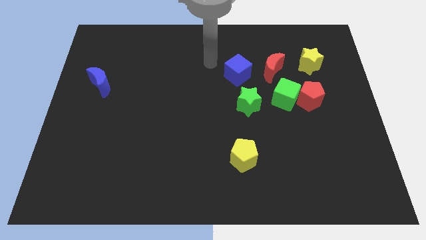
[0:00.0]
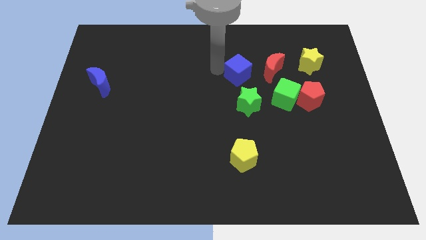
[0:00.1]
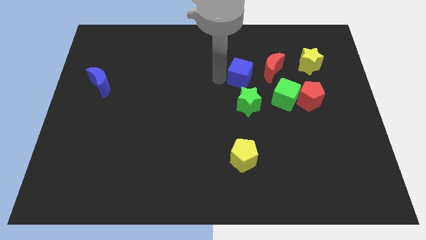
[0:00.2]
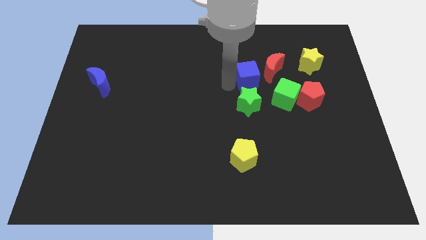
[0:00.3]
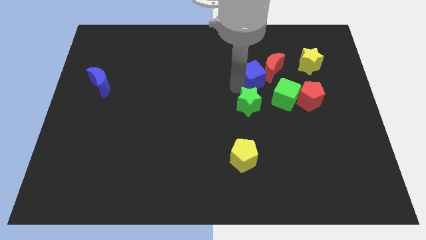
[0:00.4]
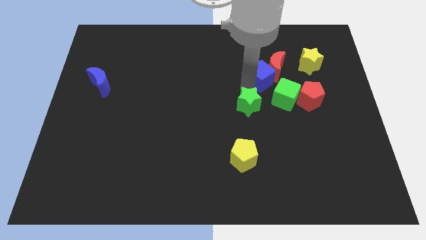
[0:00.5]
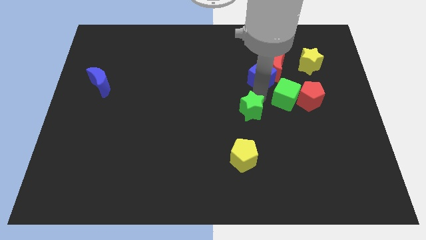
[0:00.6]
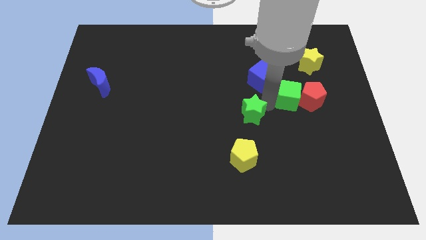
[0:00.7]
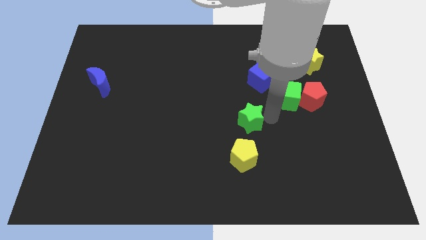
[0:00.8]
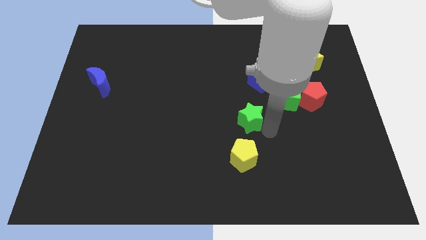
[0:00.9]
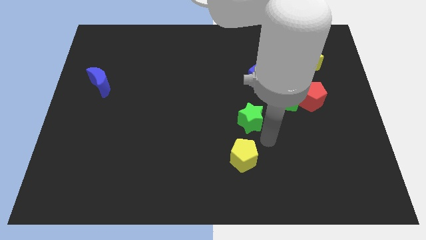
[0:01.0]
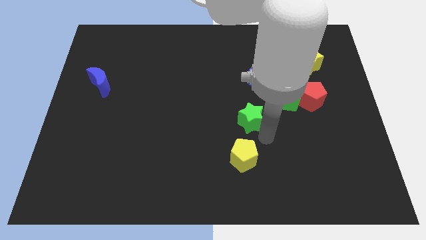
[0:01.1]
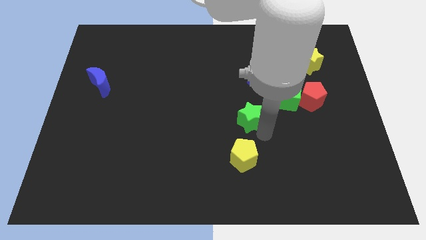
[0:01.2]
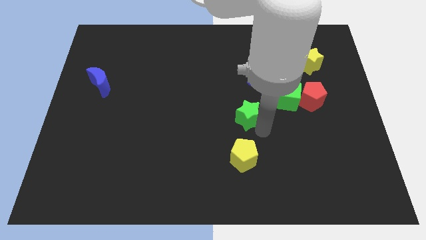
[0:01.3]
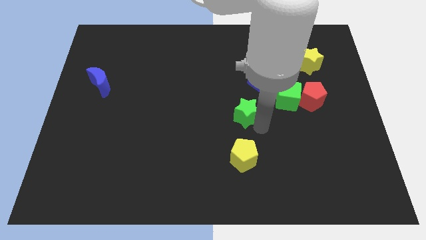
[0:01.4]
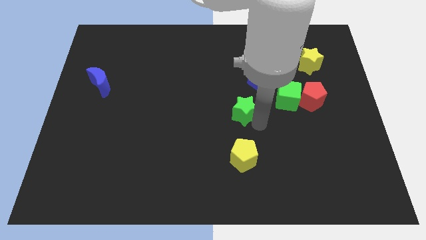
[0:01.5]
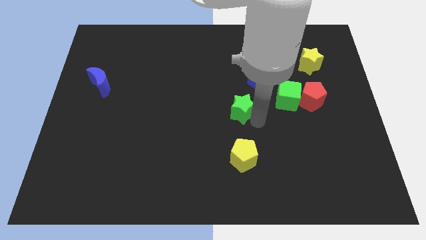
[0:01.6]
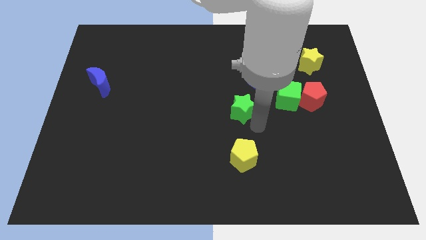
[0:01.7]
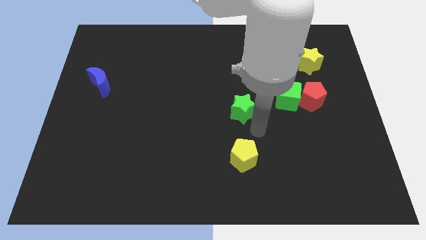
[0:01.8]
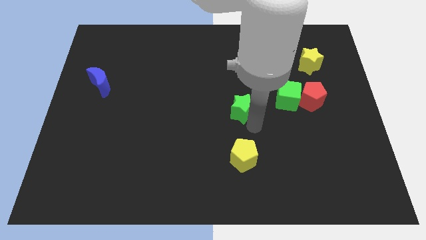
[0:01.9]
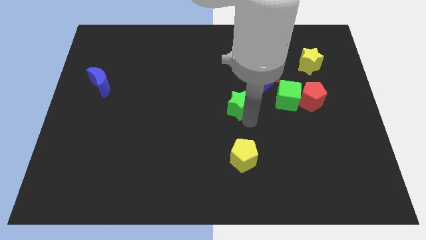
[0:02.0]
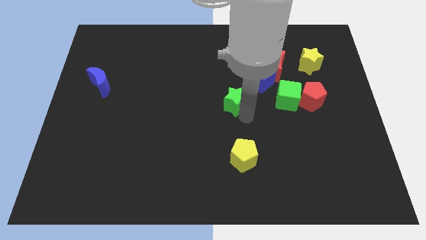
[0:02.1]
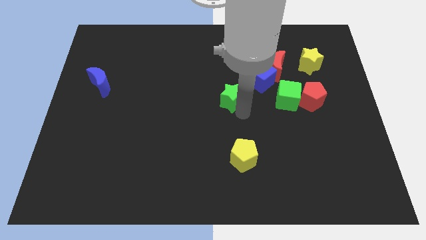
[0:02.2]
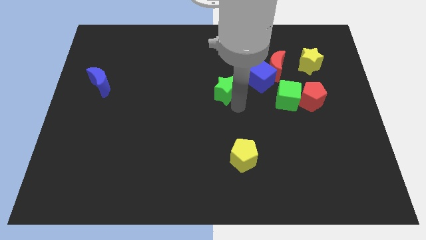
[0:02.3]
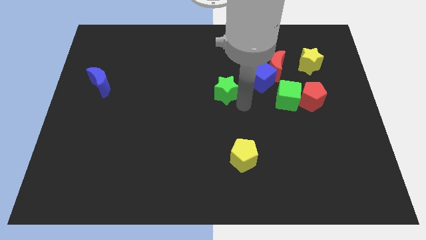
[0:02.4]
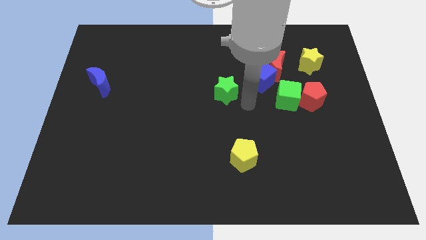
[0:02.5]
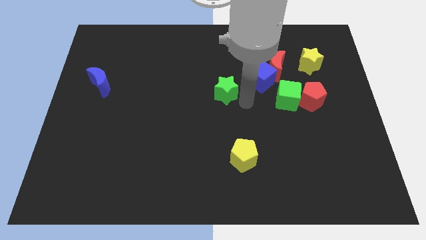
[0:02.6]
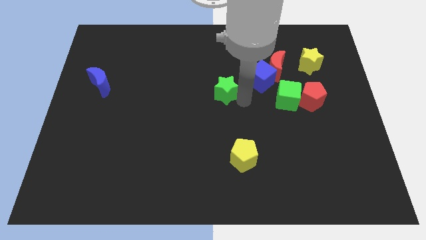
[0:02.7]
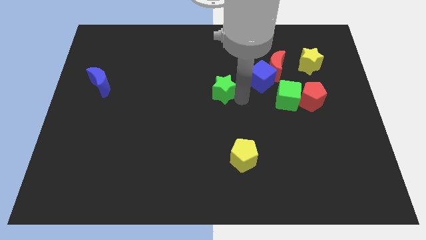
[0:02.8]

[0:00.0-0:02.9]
push the green star somewhat up and then left

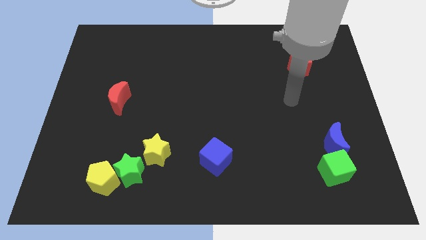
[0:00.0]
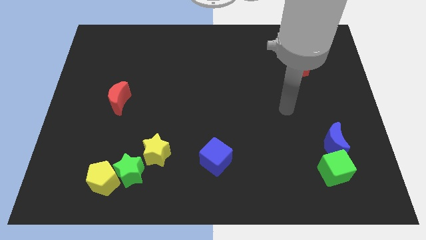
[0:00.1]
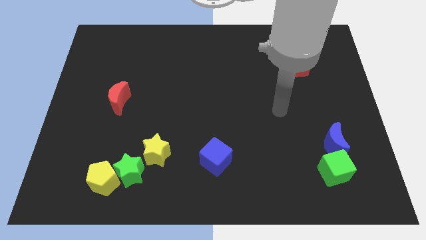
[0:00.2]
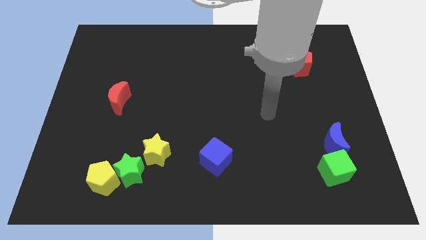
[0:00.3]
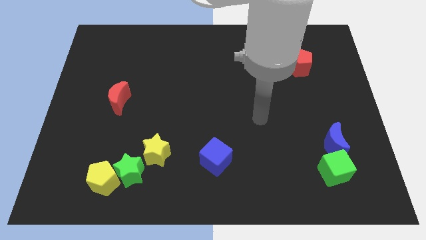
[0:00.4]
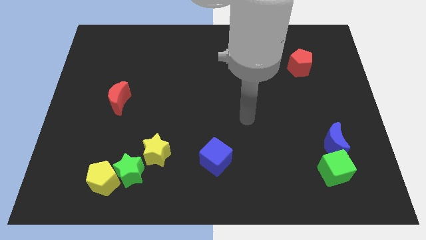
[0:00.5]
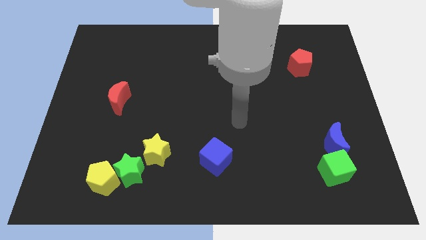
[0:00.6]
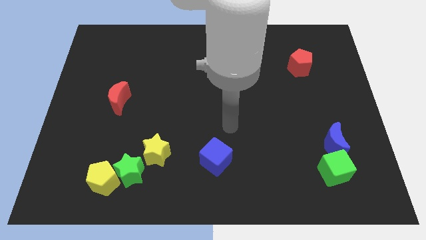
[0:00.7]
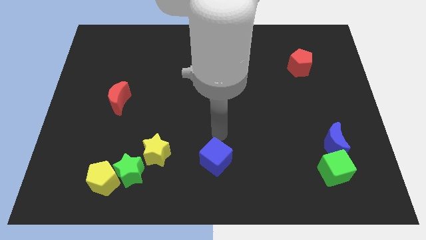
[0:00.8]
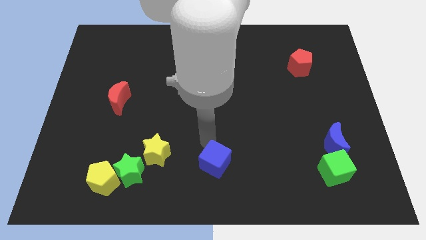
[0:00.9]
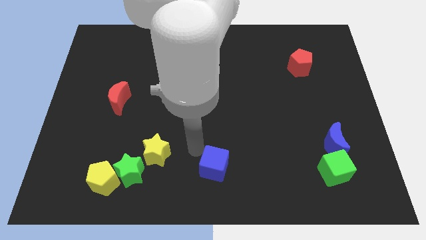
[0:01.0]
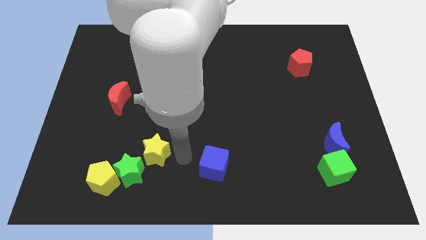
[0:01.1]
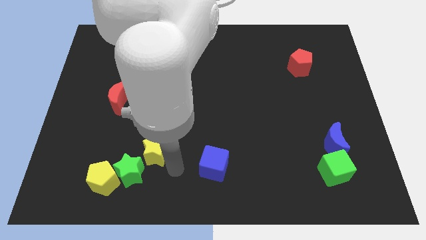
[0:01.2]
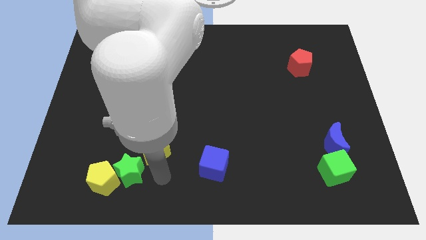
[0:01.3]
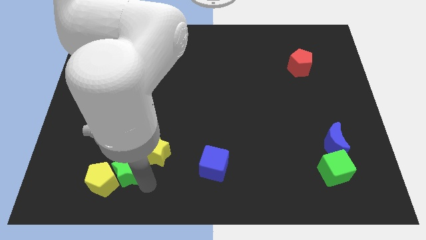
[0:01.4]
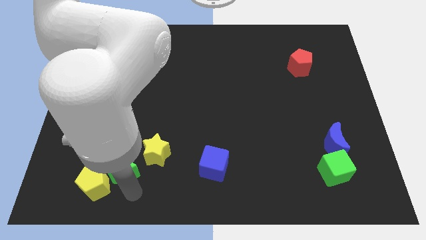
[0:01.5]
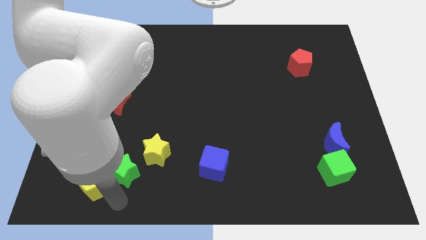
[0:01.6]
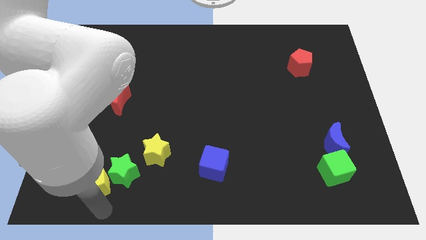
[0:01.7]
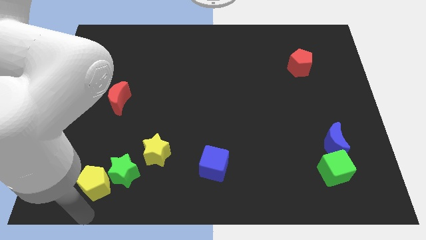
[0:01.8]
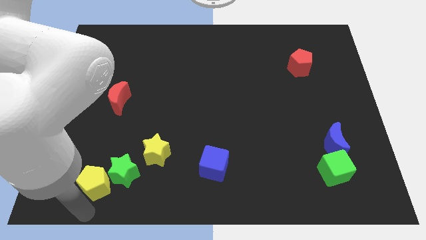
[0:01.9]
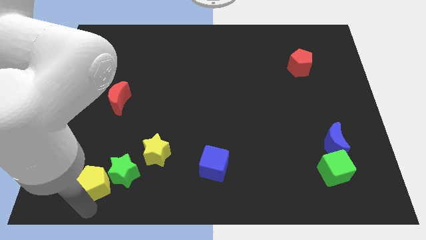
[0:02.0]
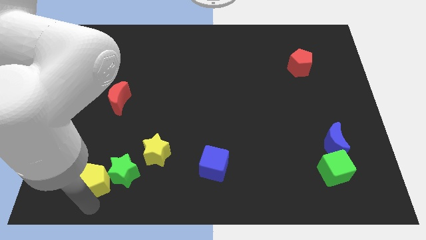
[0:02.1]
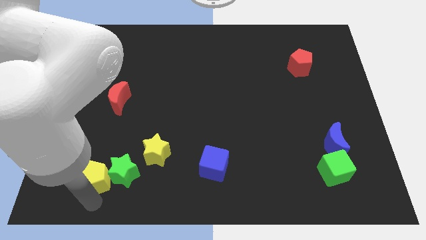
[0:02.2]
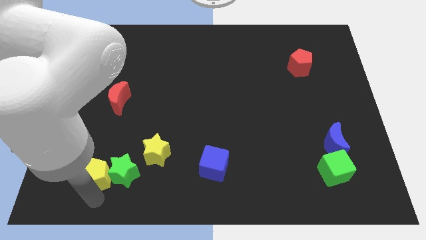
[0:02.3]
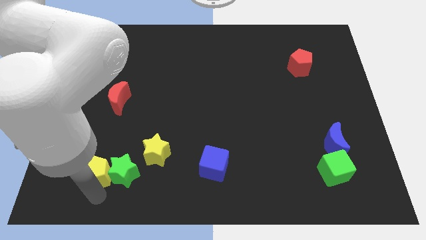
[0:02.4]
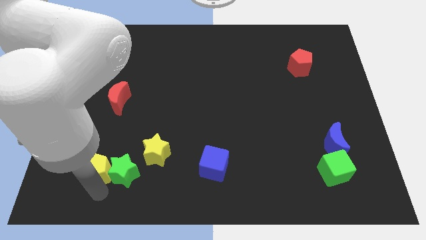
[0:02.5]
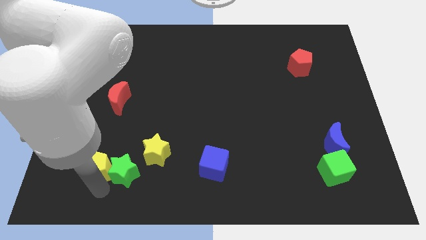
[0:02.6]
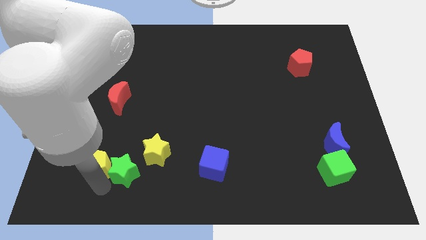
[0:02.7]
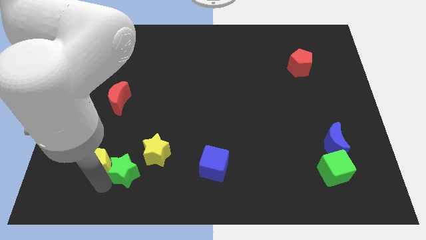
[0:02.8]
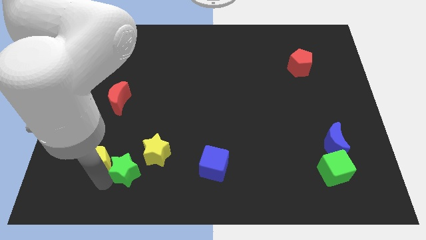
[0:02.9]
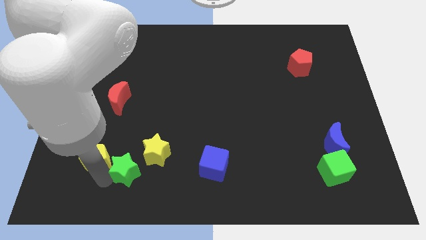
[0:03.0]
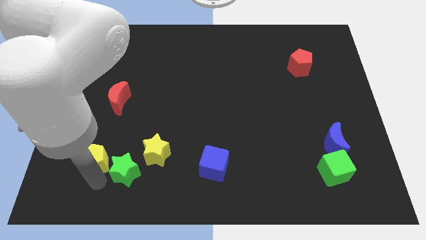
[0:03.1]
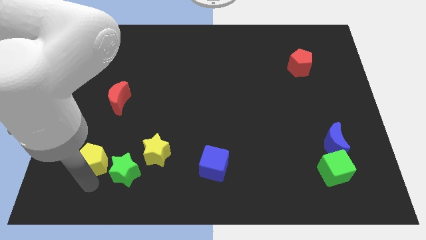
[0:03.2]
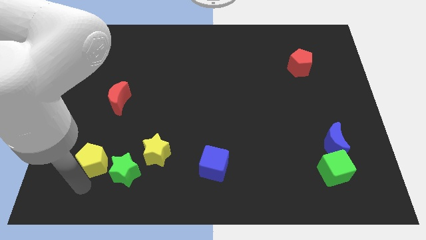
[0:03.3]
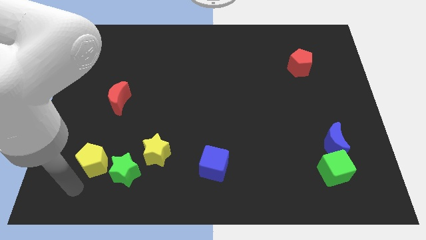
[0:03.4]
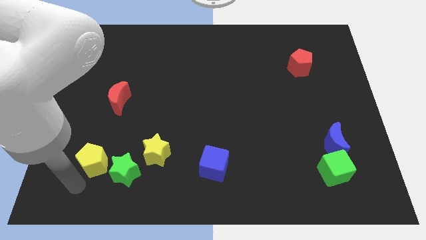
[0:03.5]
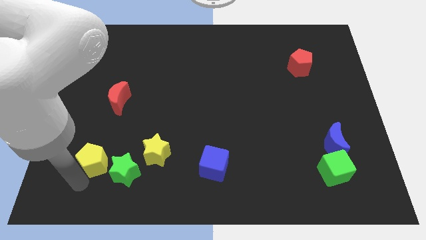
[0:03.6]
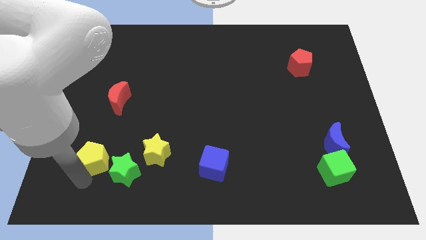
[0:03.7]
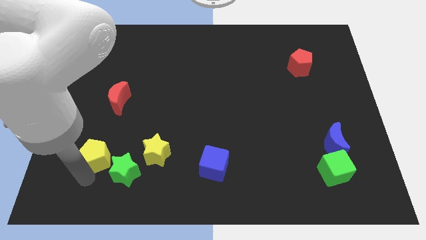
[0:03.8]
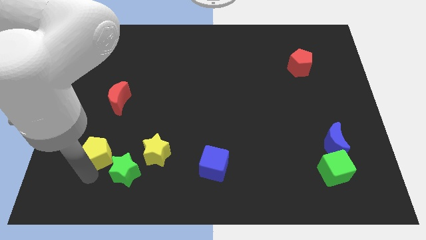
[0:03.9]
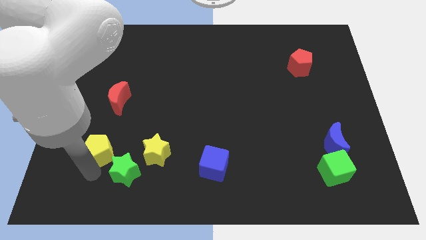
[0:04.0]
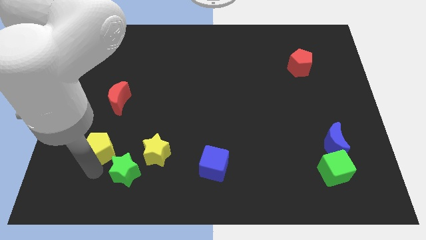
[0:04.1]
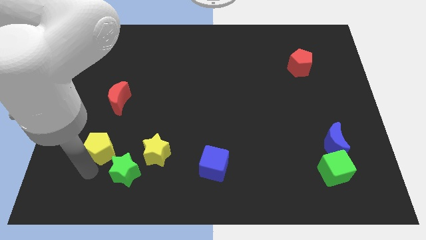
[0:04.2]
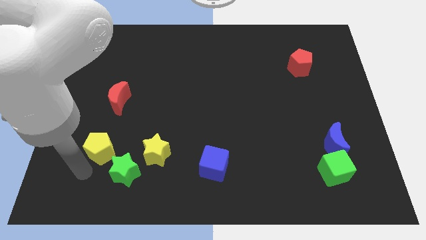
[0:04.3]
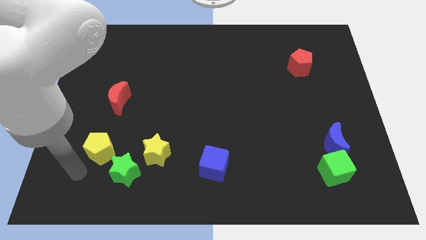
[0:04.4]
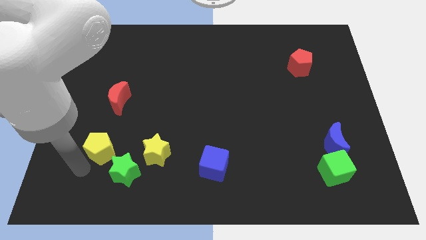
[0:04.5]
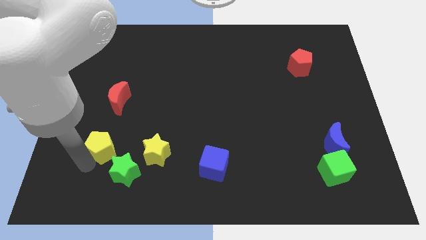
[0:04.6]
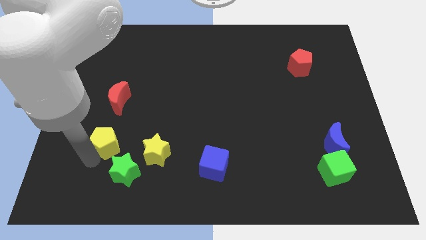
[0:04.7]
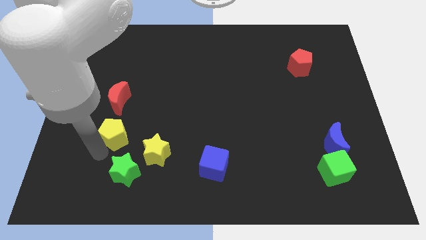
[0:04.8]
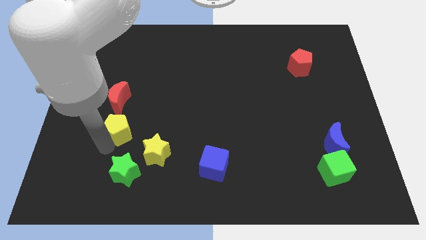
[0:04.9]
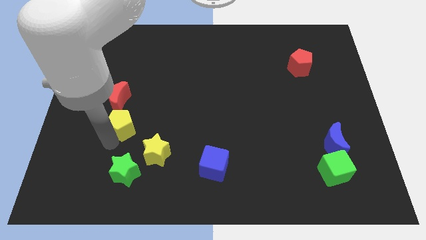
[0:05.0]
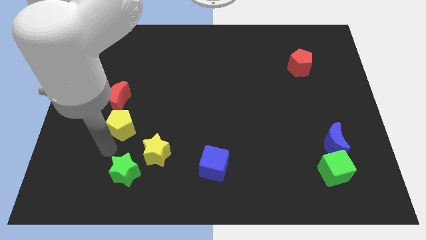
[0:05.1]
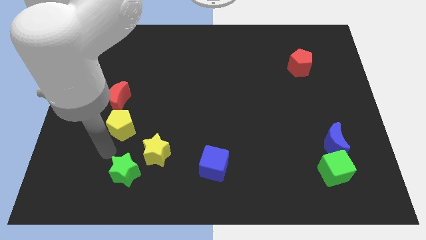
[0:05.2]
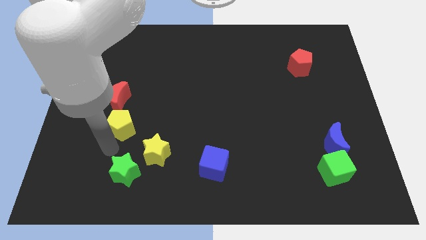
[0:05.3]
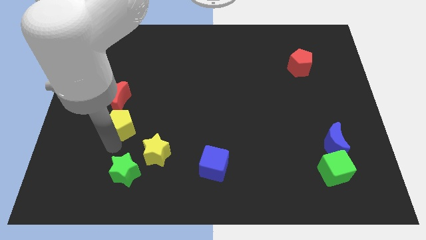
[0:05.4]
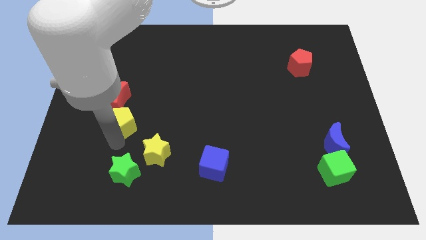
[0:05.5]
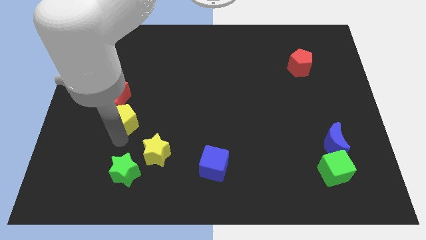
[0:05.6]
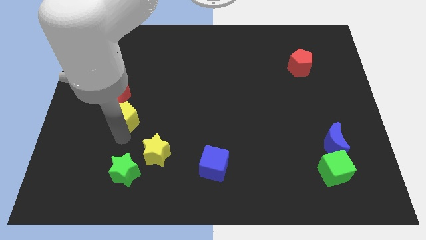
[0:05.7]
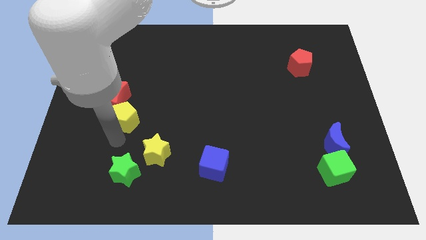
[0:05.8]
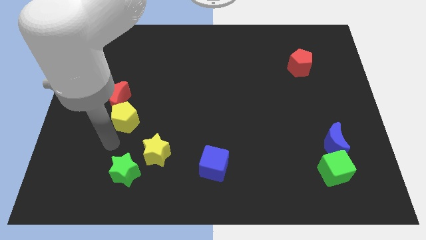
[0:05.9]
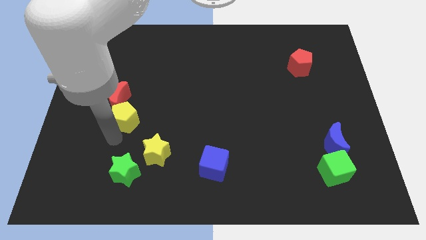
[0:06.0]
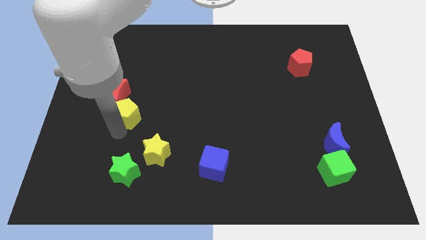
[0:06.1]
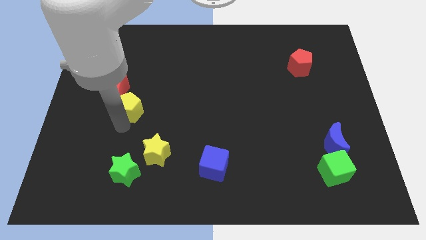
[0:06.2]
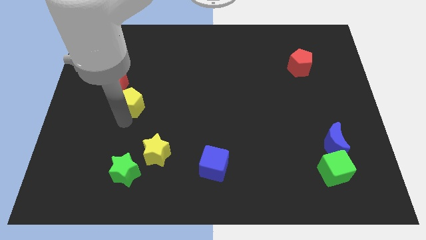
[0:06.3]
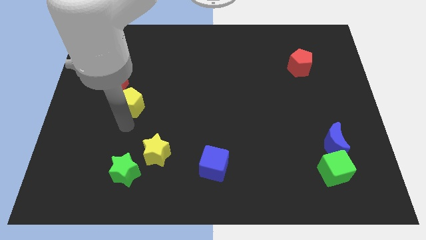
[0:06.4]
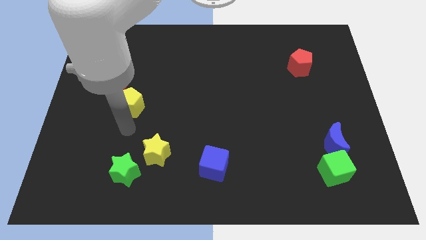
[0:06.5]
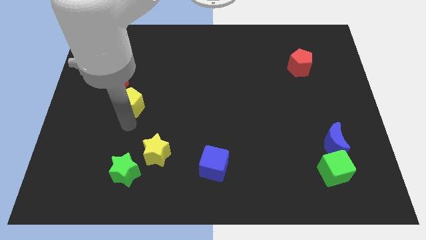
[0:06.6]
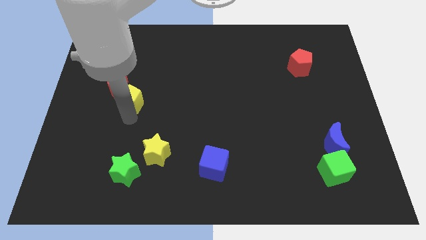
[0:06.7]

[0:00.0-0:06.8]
move the yellow pentagon upwards
